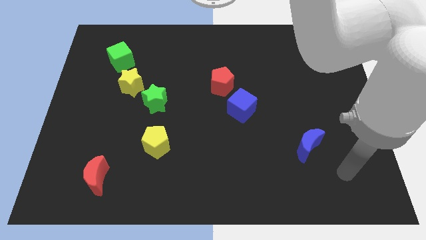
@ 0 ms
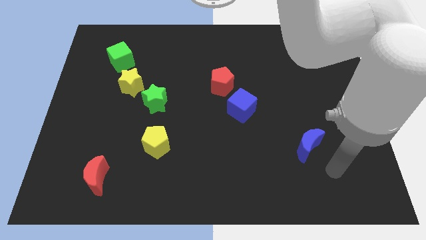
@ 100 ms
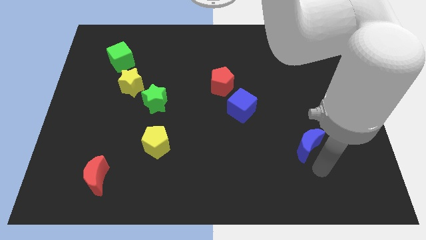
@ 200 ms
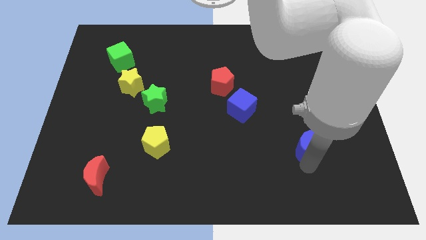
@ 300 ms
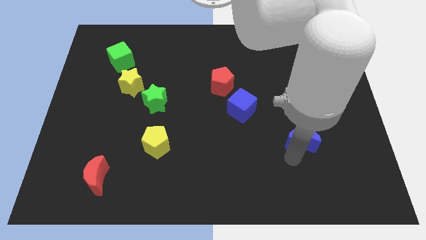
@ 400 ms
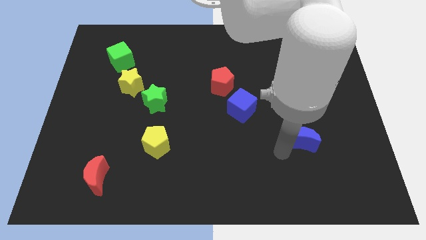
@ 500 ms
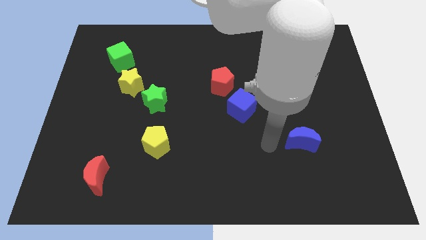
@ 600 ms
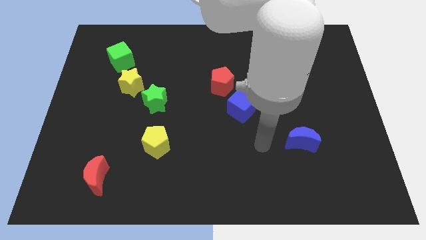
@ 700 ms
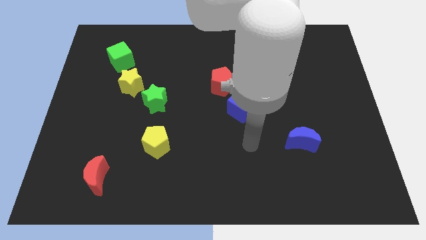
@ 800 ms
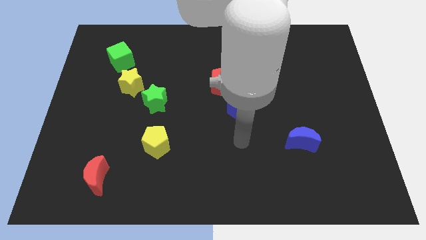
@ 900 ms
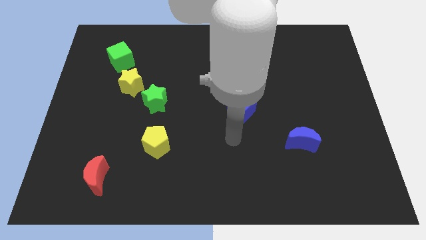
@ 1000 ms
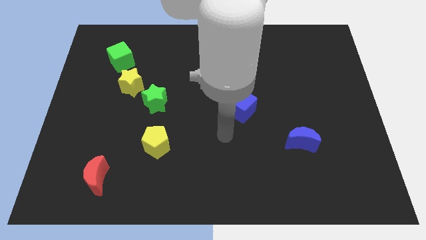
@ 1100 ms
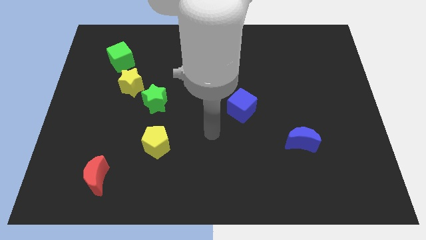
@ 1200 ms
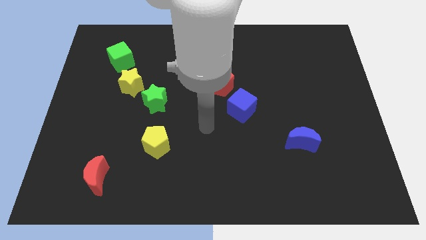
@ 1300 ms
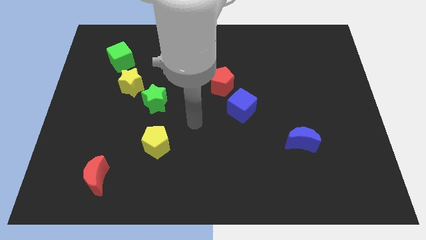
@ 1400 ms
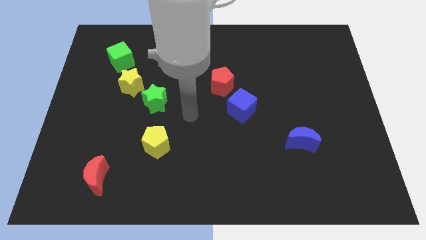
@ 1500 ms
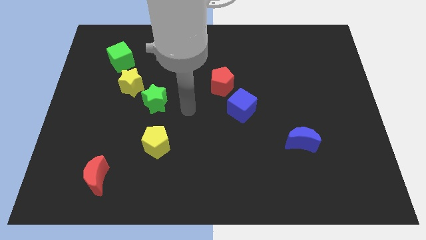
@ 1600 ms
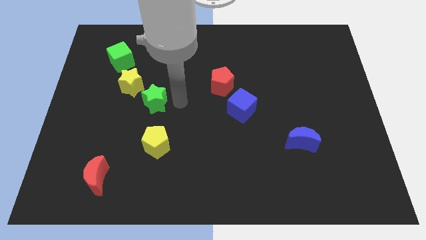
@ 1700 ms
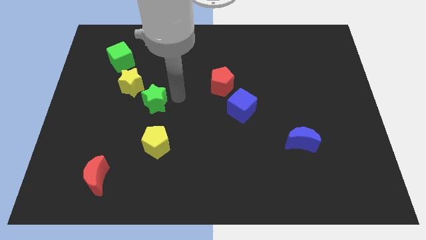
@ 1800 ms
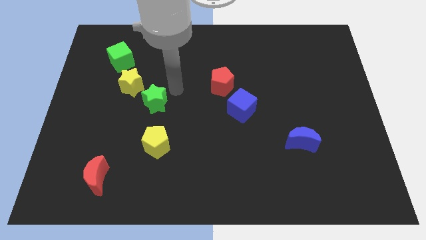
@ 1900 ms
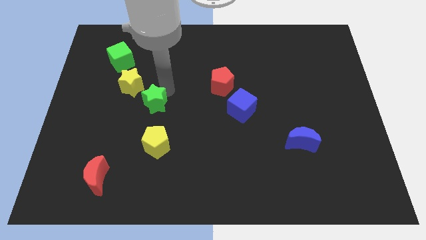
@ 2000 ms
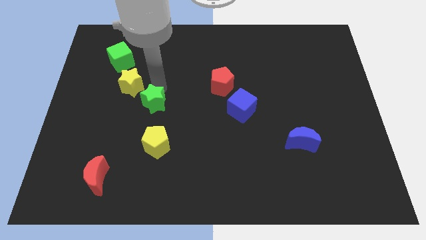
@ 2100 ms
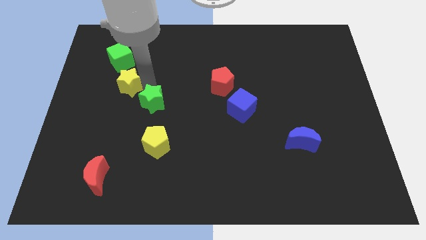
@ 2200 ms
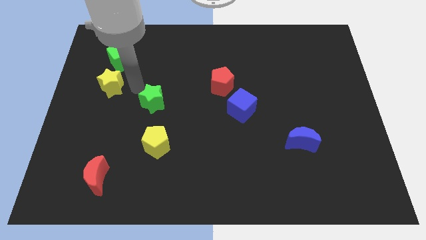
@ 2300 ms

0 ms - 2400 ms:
pull the green star apart from the yellow star

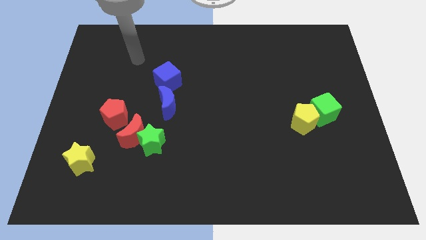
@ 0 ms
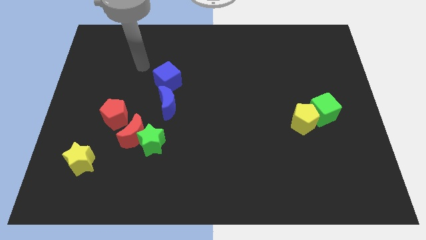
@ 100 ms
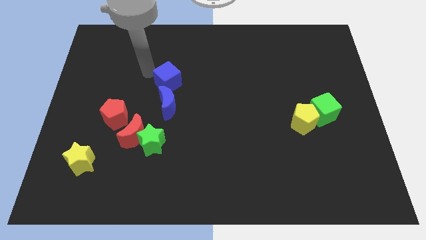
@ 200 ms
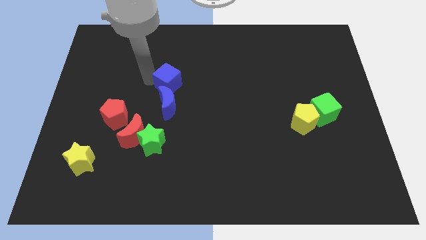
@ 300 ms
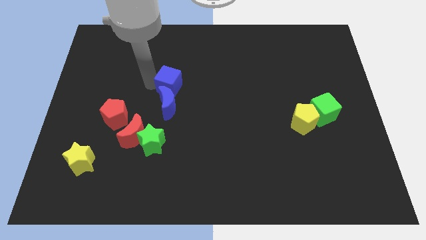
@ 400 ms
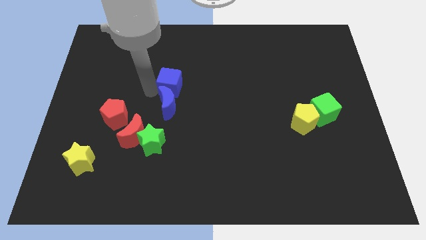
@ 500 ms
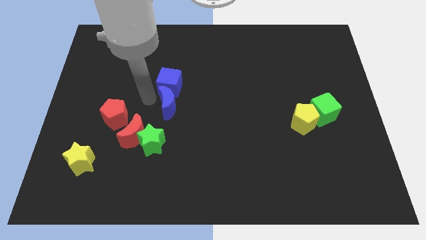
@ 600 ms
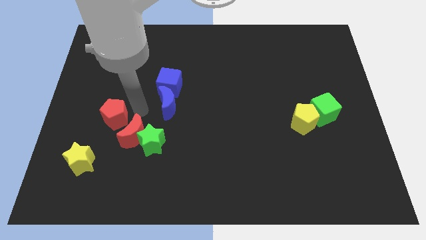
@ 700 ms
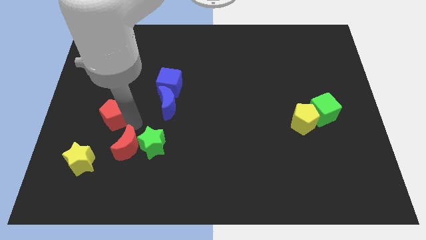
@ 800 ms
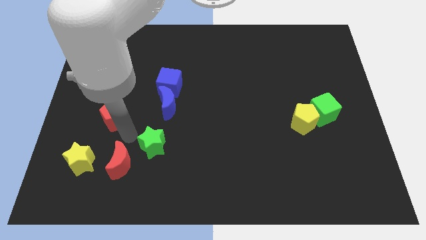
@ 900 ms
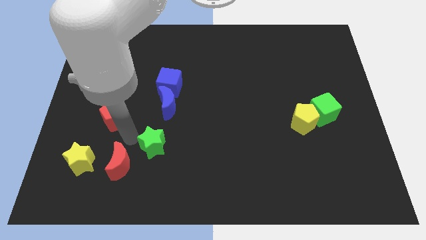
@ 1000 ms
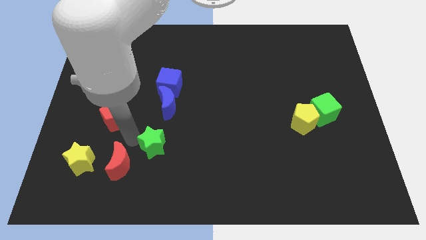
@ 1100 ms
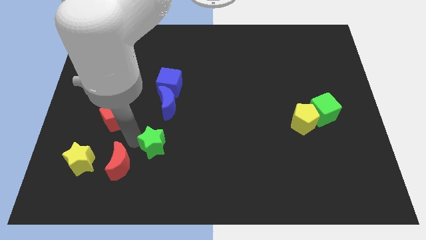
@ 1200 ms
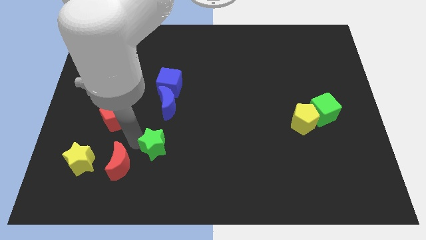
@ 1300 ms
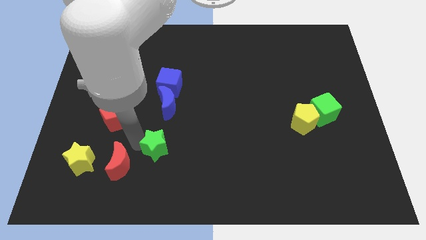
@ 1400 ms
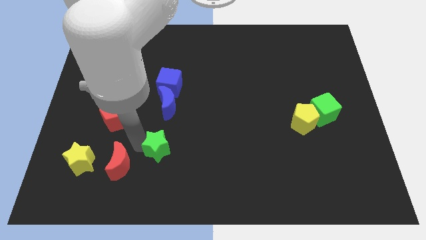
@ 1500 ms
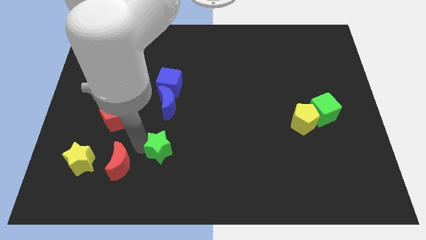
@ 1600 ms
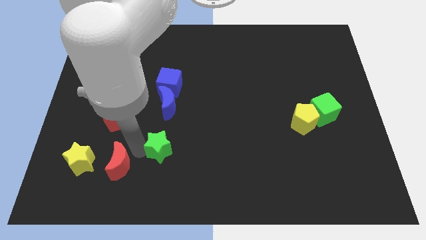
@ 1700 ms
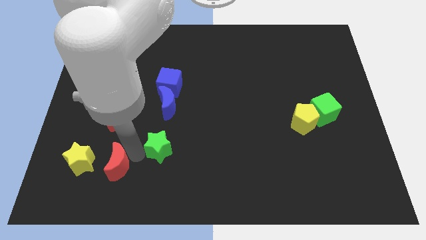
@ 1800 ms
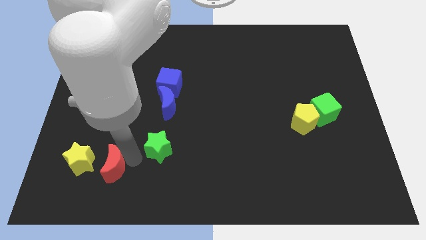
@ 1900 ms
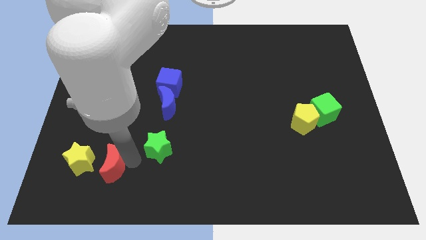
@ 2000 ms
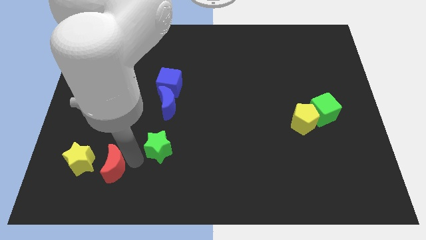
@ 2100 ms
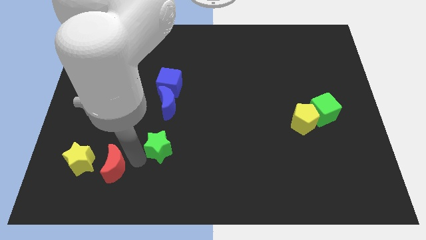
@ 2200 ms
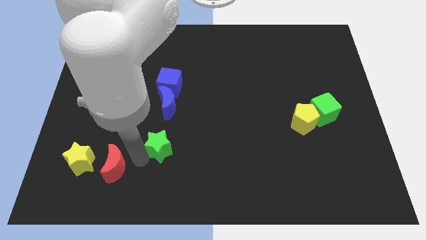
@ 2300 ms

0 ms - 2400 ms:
separate the green star from the red moon

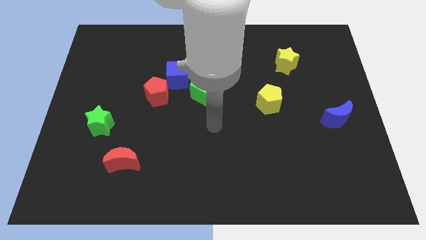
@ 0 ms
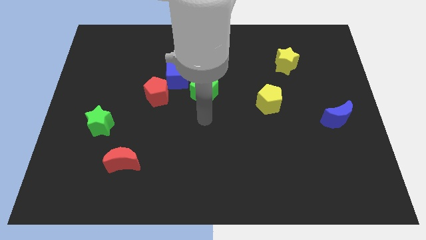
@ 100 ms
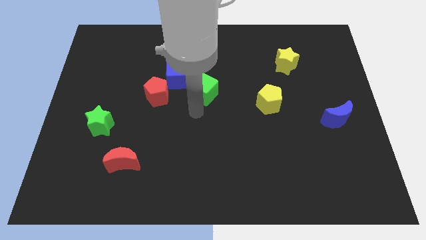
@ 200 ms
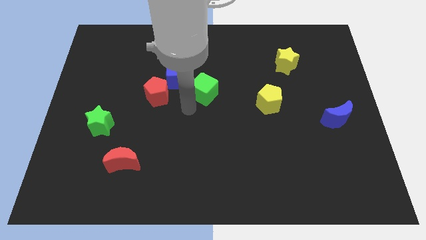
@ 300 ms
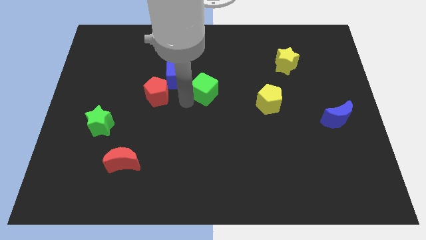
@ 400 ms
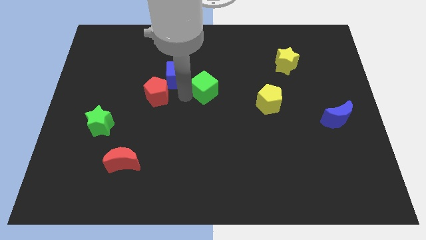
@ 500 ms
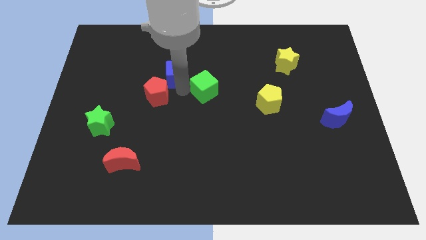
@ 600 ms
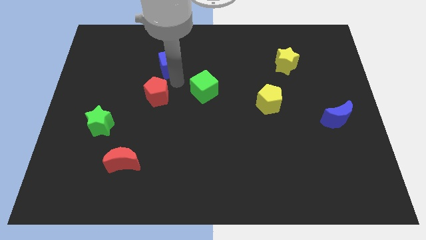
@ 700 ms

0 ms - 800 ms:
move the red pentagon away from the blue cube

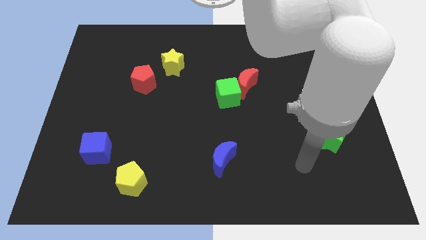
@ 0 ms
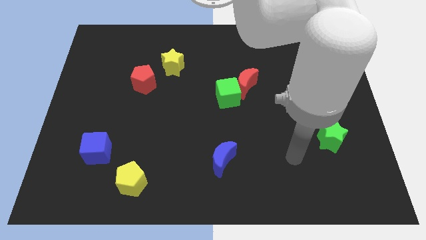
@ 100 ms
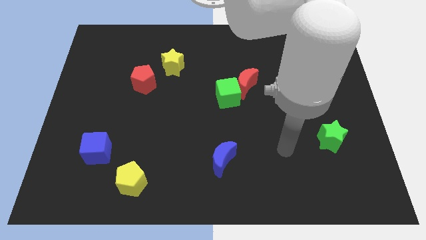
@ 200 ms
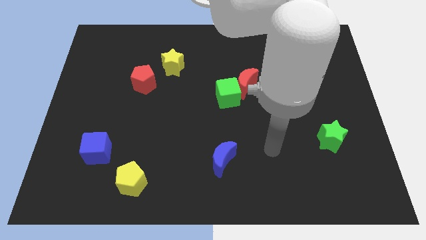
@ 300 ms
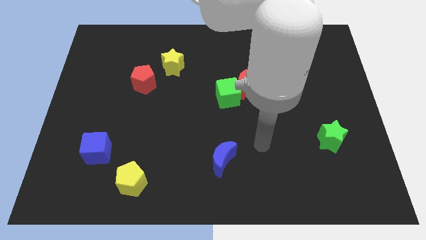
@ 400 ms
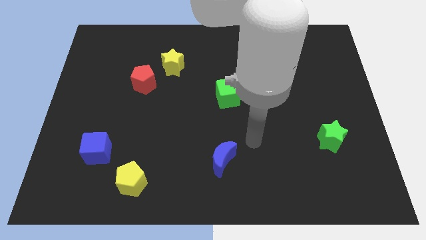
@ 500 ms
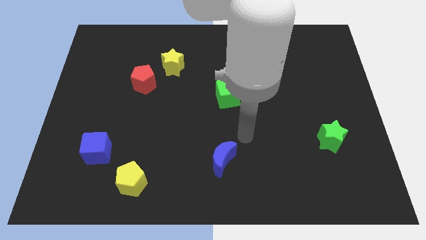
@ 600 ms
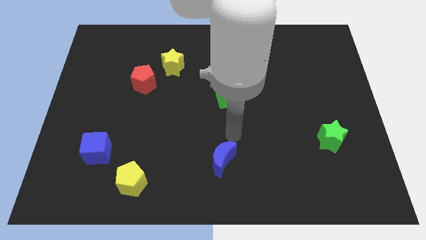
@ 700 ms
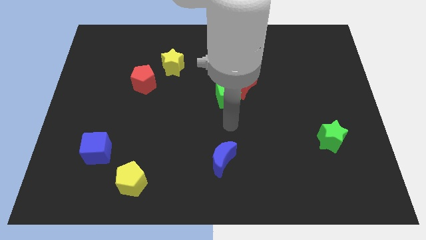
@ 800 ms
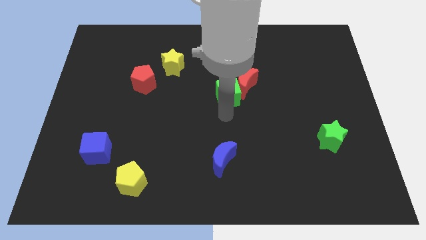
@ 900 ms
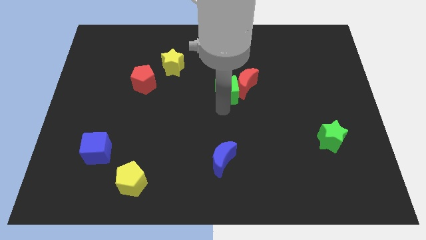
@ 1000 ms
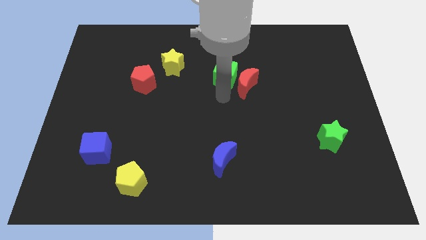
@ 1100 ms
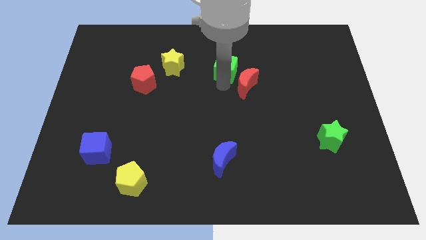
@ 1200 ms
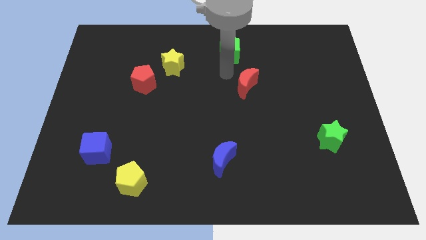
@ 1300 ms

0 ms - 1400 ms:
pull the red moon apart from the green cube

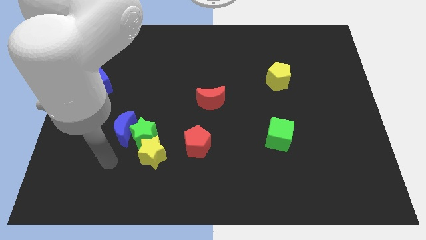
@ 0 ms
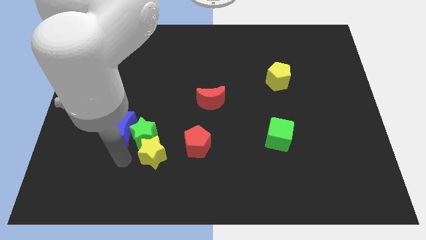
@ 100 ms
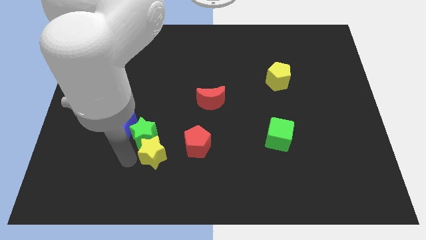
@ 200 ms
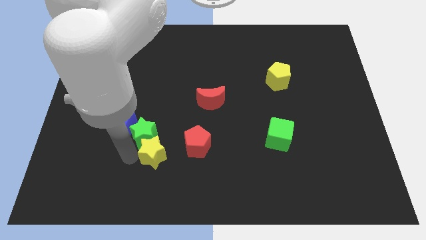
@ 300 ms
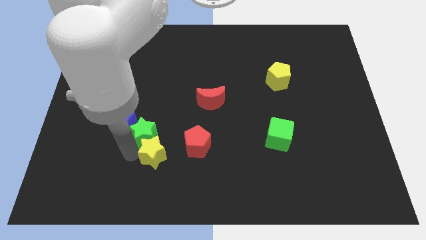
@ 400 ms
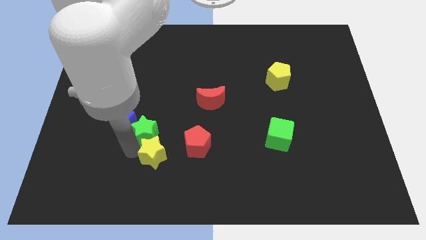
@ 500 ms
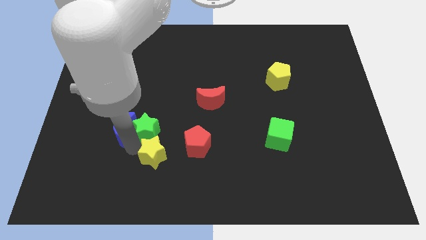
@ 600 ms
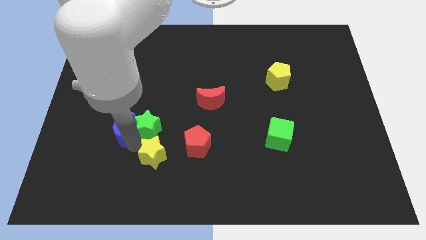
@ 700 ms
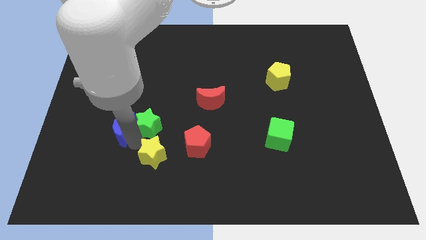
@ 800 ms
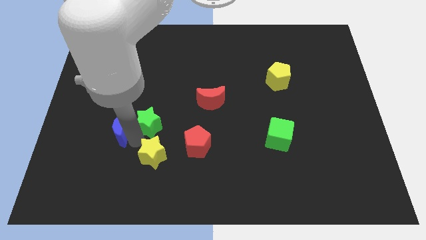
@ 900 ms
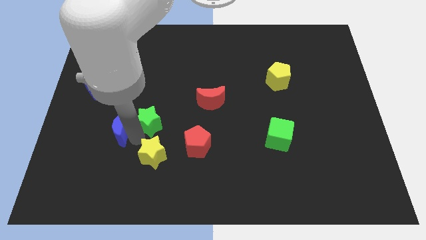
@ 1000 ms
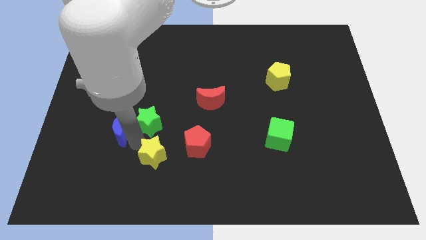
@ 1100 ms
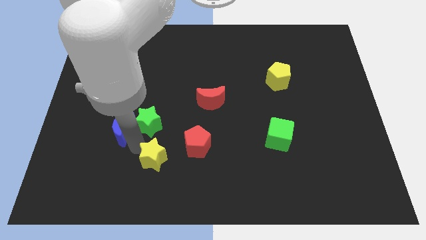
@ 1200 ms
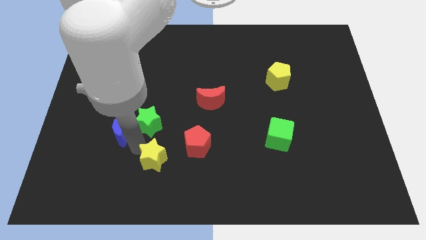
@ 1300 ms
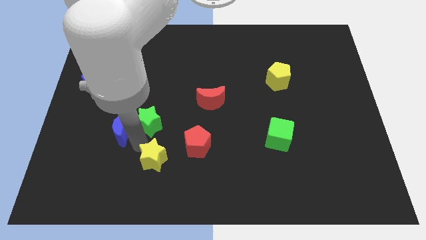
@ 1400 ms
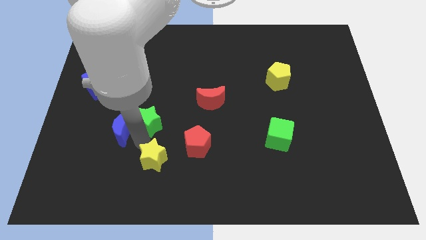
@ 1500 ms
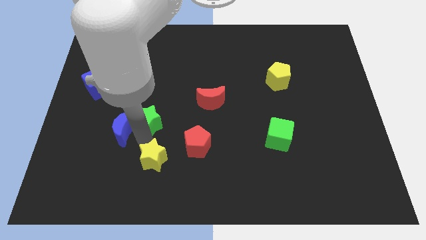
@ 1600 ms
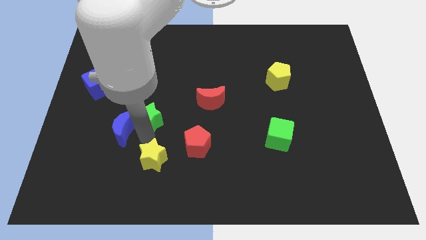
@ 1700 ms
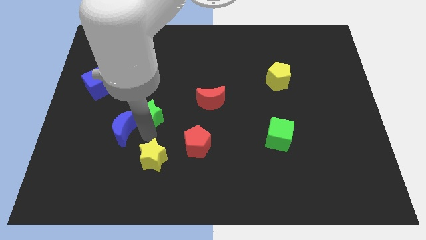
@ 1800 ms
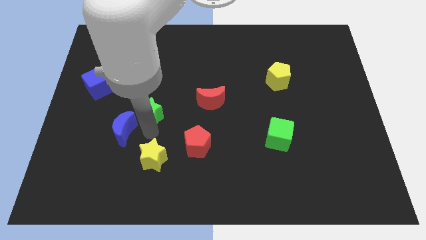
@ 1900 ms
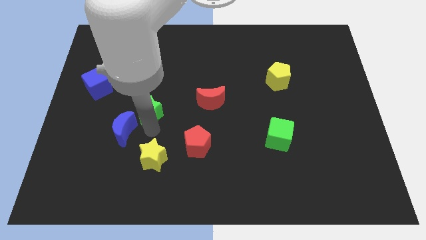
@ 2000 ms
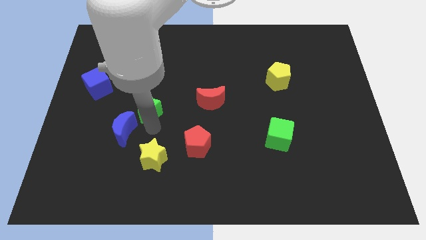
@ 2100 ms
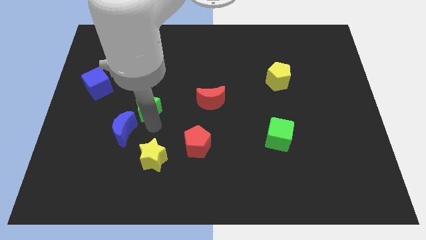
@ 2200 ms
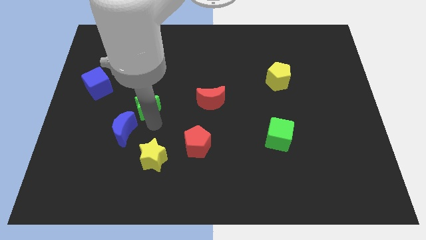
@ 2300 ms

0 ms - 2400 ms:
pull the green star apart from the blue moon and yellow star

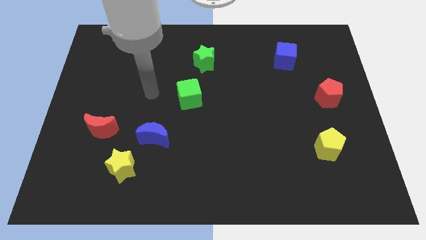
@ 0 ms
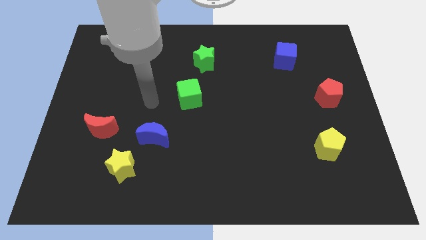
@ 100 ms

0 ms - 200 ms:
pull the blue moon apart from the yellow star
